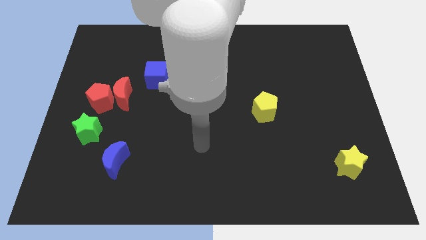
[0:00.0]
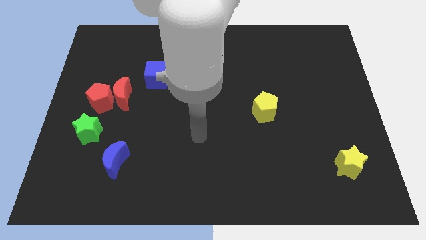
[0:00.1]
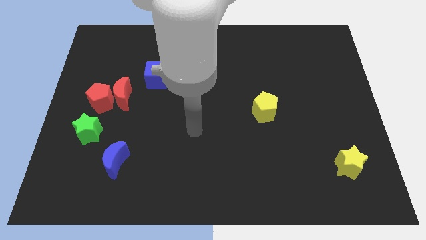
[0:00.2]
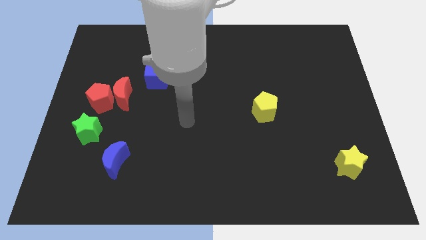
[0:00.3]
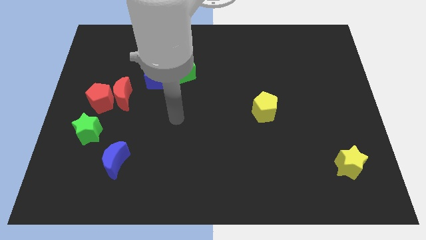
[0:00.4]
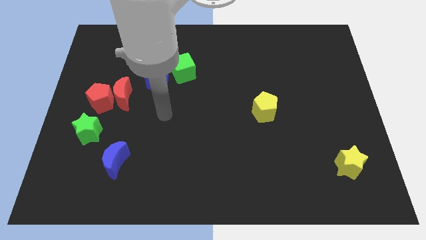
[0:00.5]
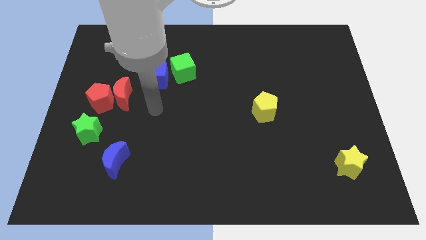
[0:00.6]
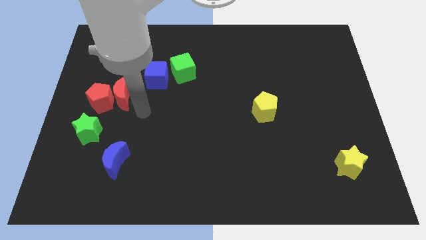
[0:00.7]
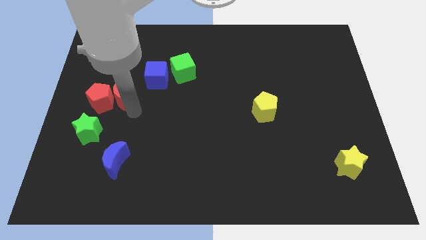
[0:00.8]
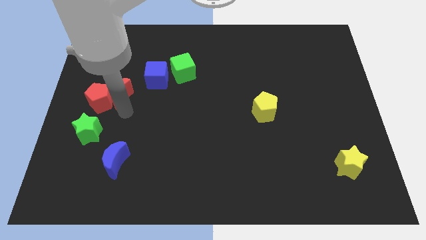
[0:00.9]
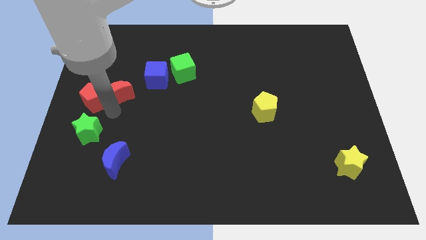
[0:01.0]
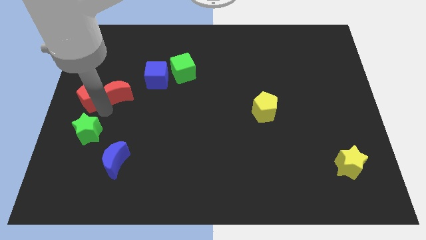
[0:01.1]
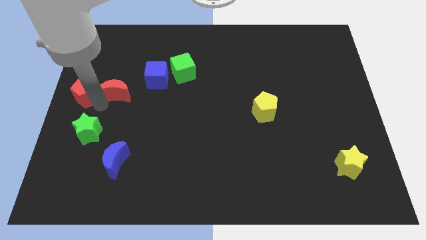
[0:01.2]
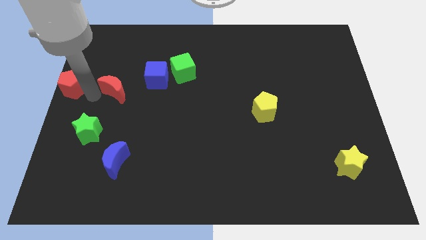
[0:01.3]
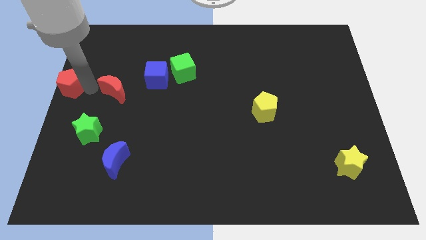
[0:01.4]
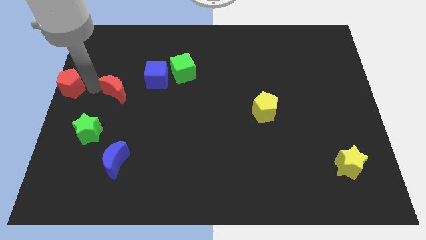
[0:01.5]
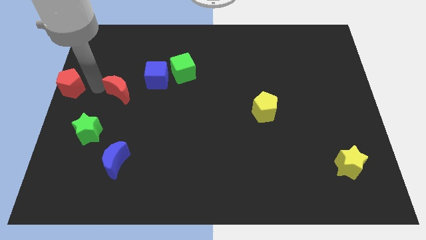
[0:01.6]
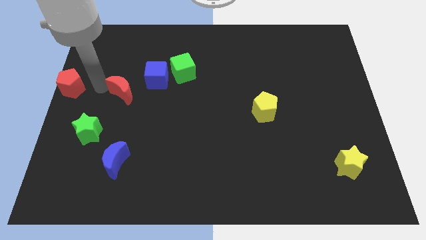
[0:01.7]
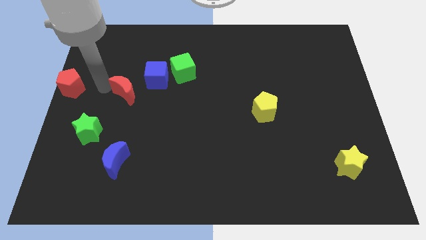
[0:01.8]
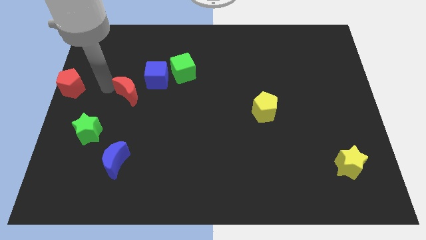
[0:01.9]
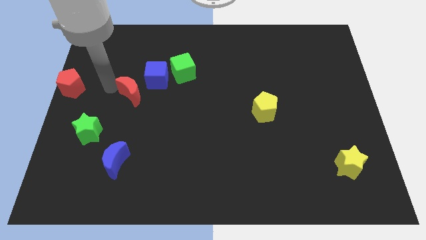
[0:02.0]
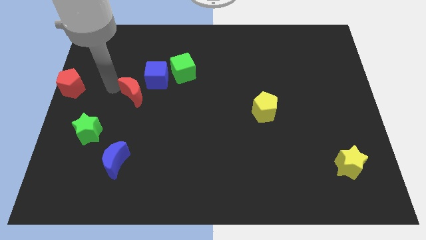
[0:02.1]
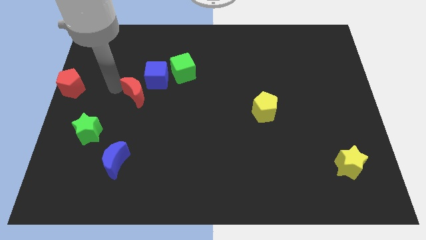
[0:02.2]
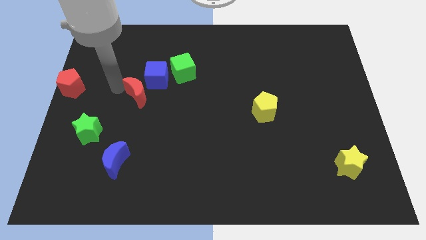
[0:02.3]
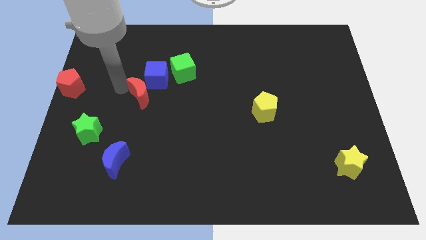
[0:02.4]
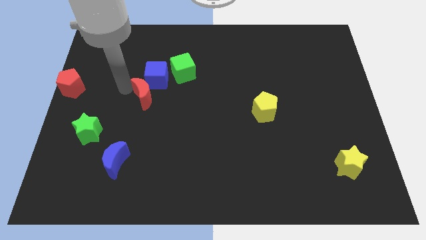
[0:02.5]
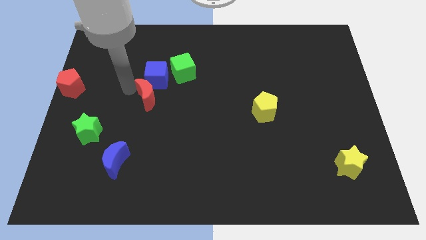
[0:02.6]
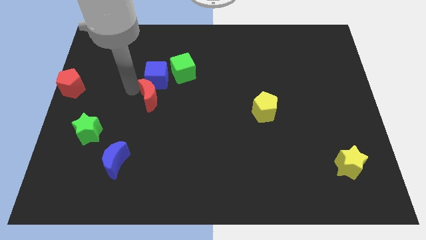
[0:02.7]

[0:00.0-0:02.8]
slightly push the red moon right

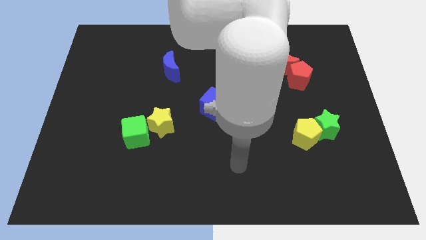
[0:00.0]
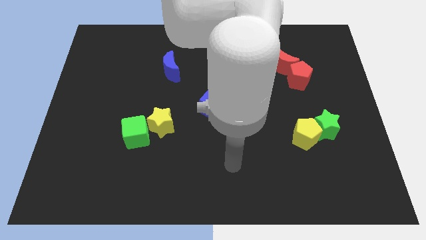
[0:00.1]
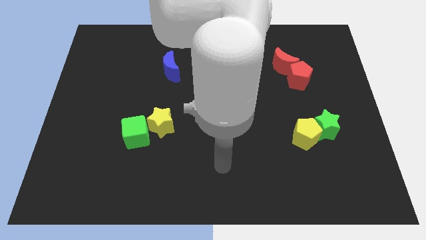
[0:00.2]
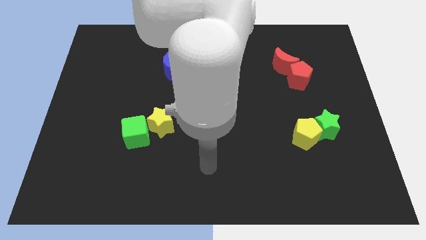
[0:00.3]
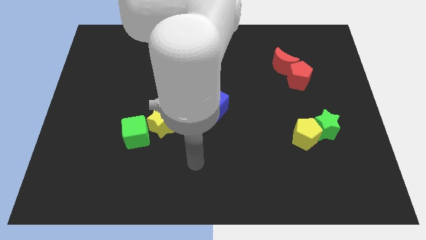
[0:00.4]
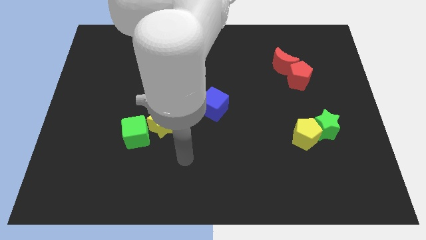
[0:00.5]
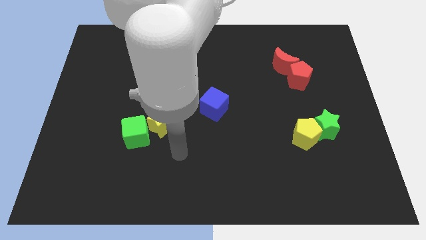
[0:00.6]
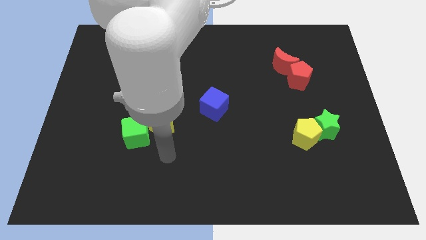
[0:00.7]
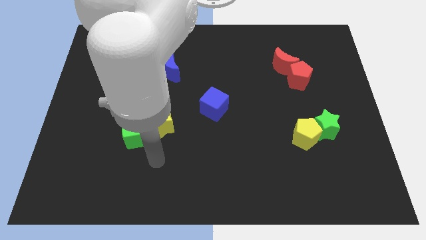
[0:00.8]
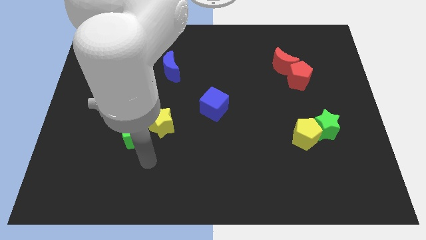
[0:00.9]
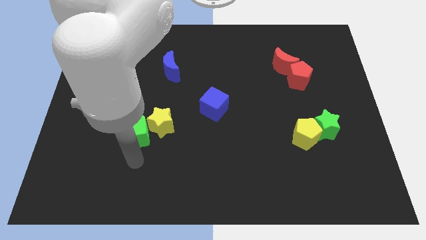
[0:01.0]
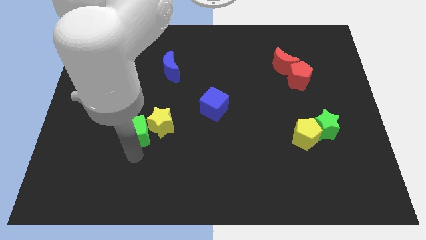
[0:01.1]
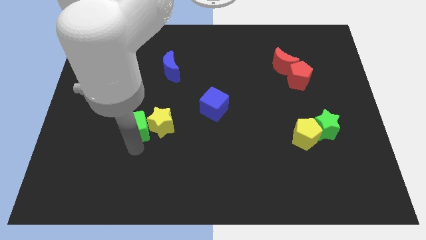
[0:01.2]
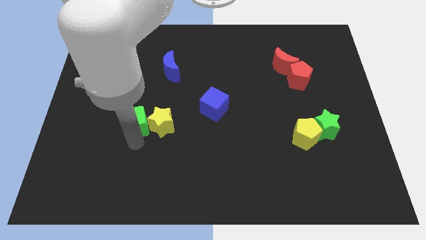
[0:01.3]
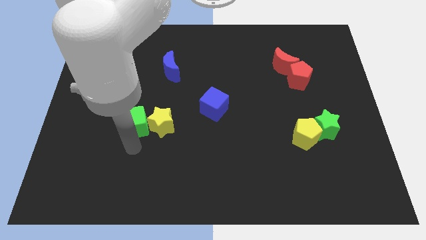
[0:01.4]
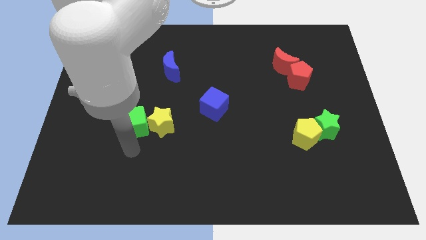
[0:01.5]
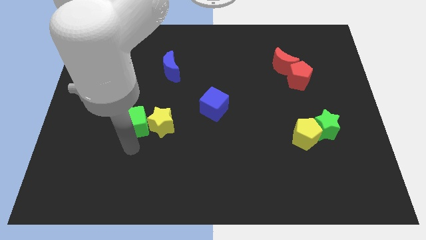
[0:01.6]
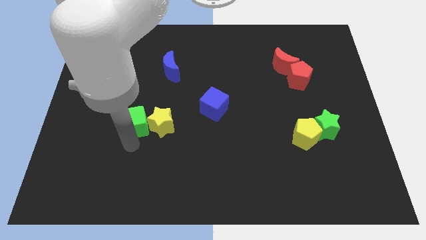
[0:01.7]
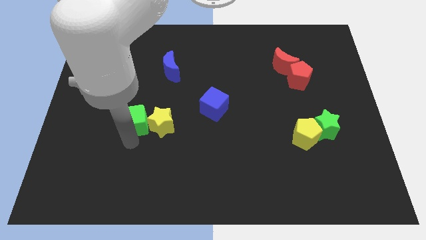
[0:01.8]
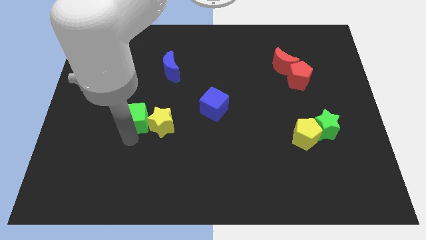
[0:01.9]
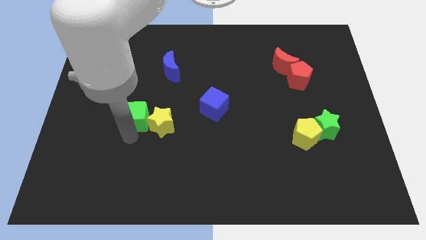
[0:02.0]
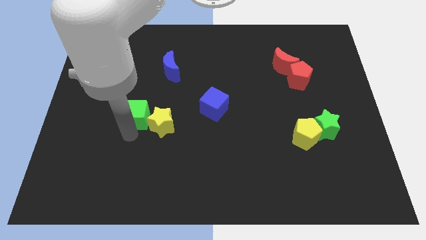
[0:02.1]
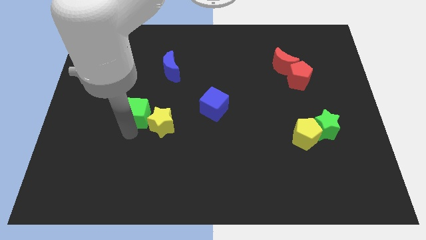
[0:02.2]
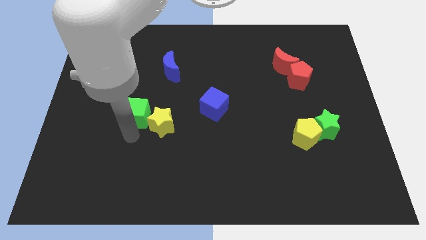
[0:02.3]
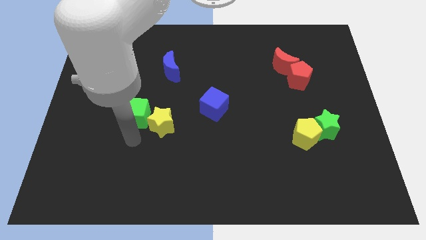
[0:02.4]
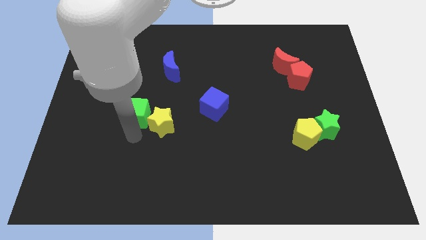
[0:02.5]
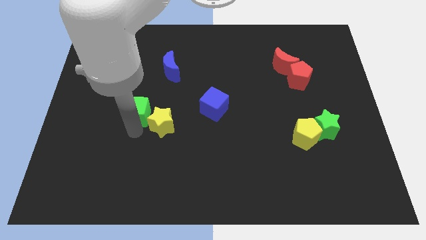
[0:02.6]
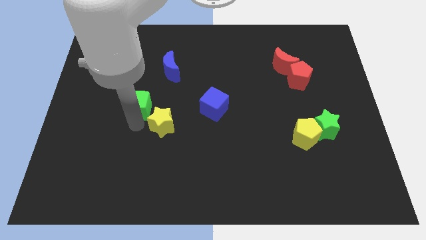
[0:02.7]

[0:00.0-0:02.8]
move the green cube upwards slightly

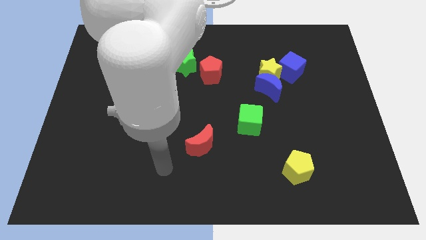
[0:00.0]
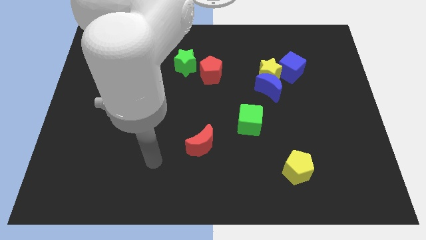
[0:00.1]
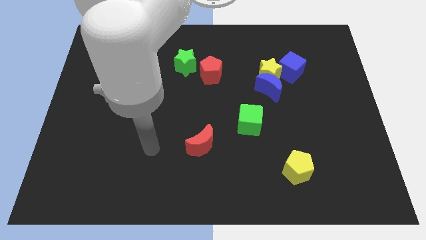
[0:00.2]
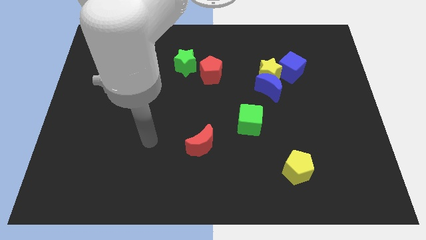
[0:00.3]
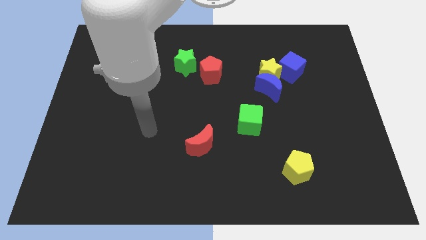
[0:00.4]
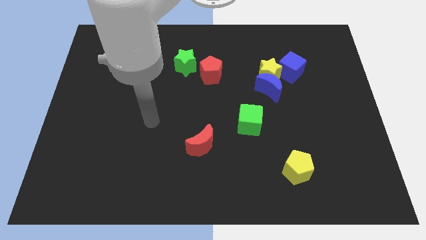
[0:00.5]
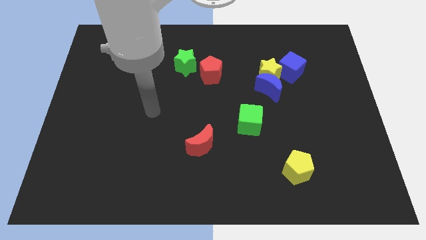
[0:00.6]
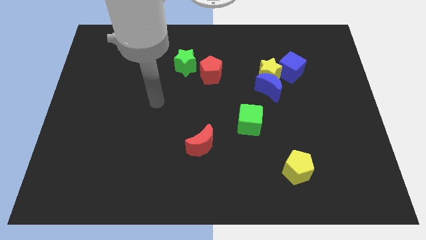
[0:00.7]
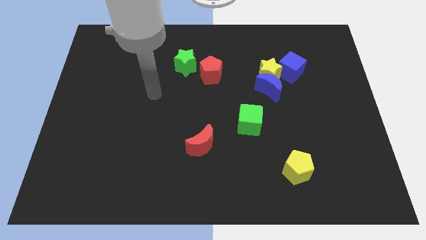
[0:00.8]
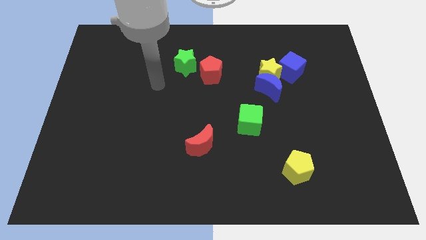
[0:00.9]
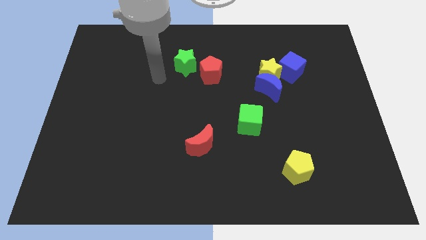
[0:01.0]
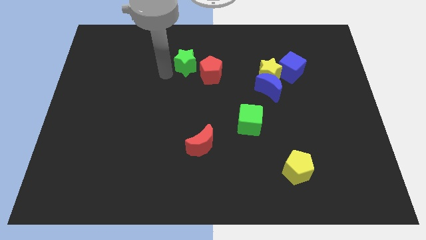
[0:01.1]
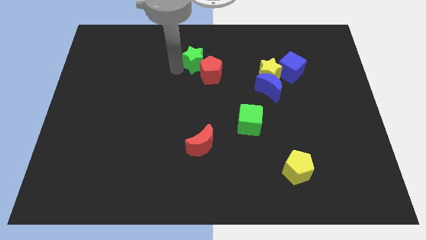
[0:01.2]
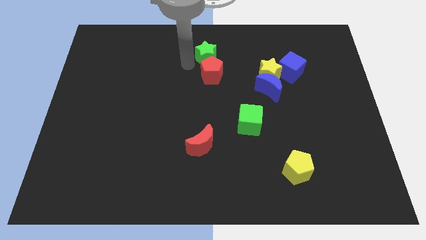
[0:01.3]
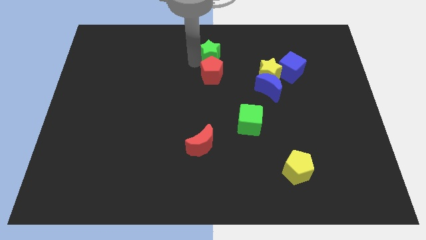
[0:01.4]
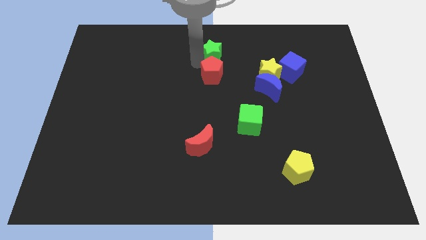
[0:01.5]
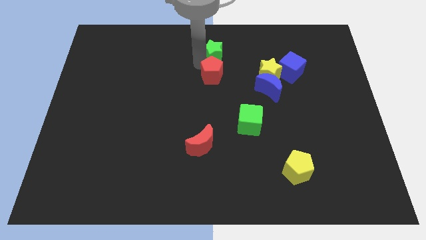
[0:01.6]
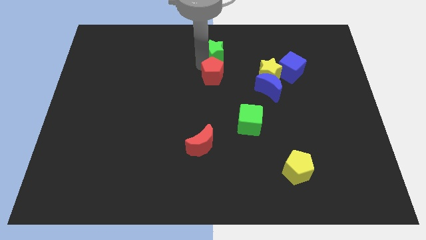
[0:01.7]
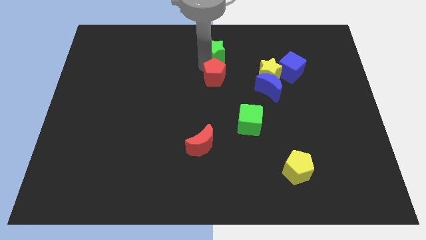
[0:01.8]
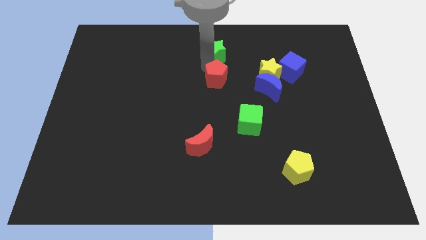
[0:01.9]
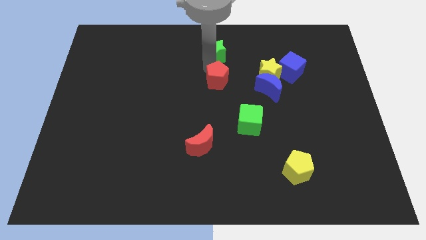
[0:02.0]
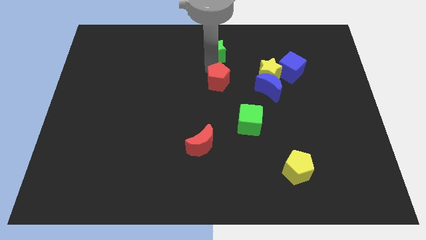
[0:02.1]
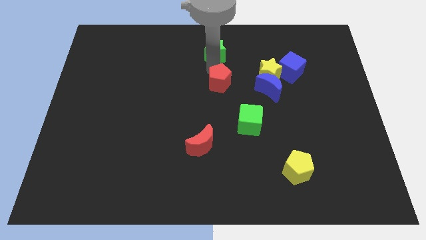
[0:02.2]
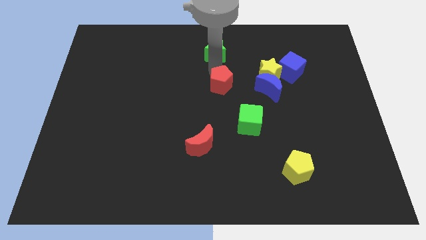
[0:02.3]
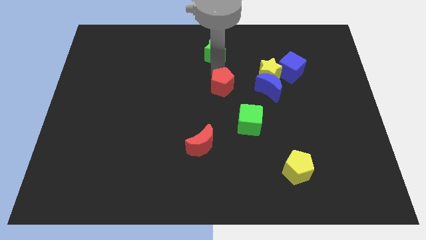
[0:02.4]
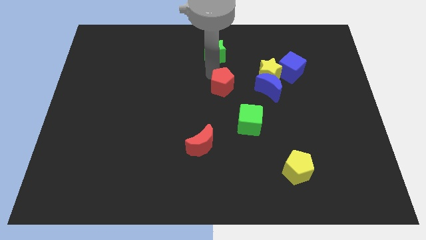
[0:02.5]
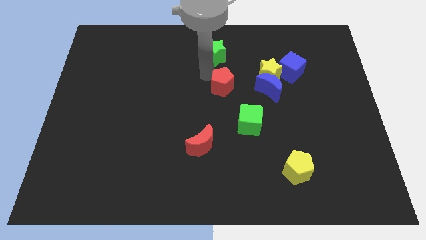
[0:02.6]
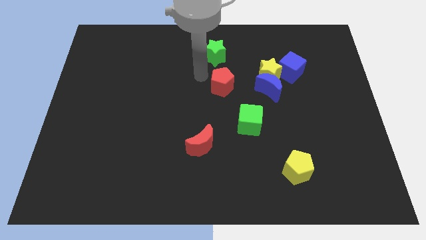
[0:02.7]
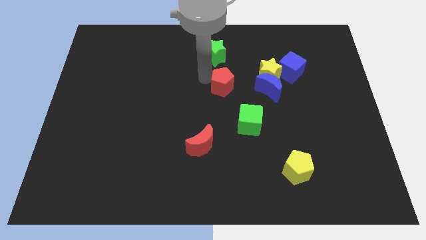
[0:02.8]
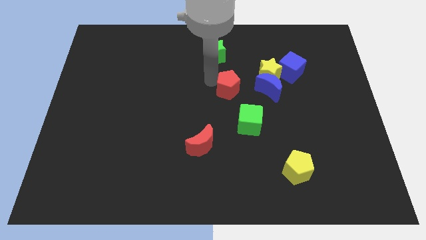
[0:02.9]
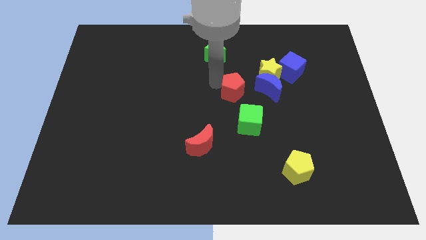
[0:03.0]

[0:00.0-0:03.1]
push the red pentagon downwards and right diagonally somewhat
